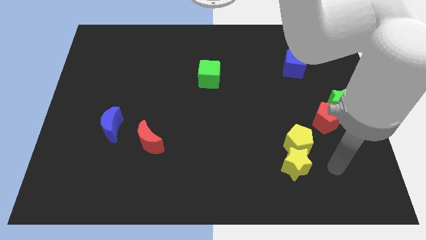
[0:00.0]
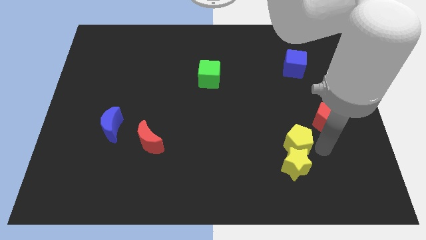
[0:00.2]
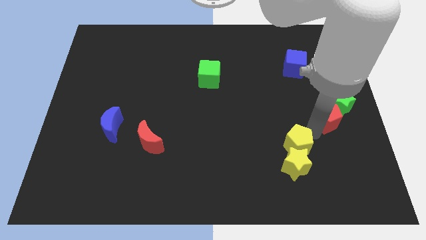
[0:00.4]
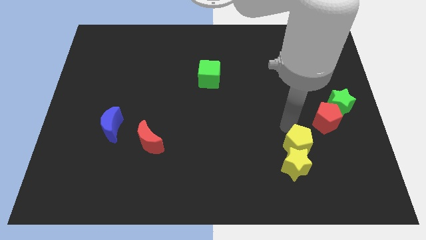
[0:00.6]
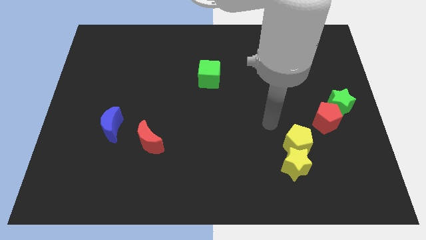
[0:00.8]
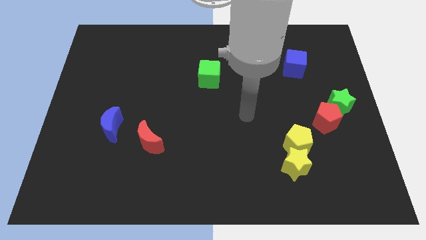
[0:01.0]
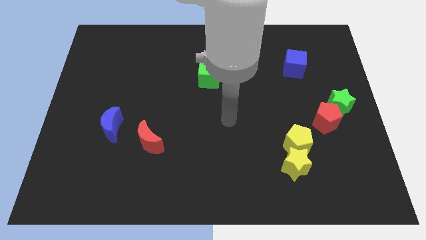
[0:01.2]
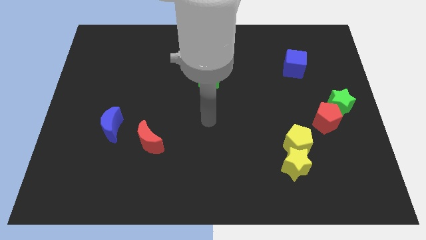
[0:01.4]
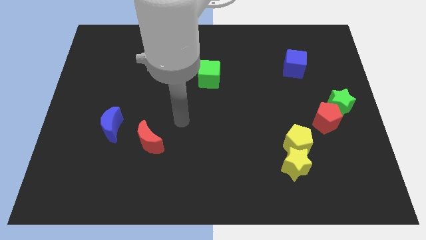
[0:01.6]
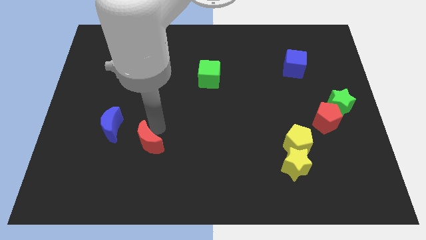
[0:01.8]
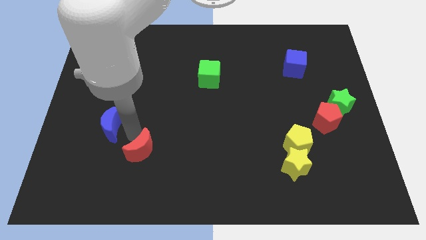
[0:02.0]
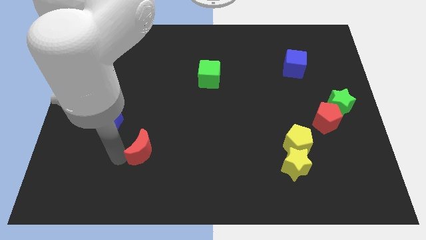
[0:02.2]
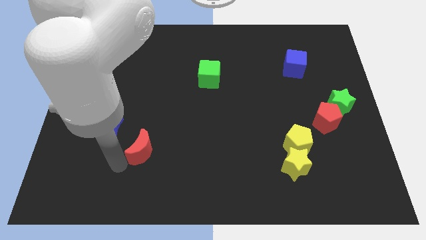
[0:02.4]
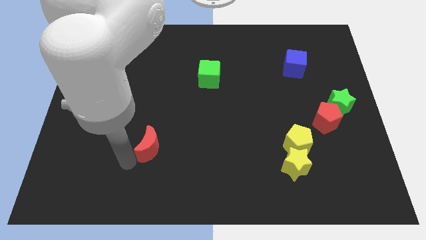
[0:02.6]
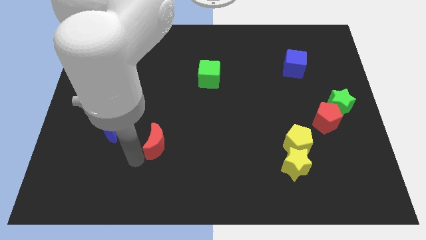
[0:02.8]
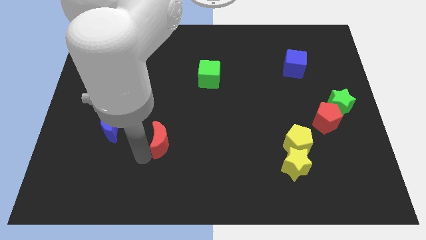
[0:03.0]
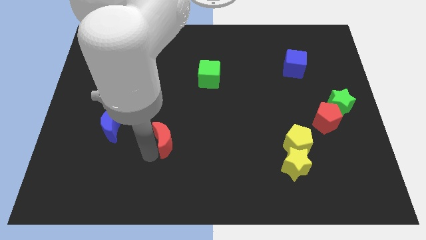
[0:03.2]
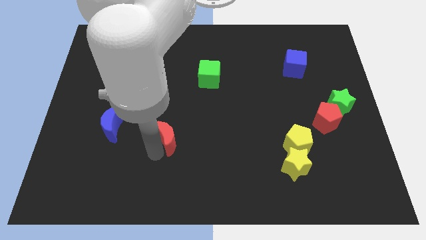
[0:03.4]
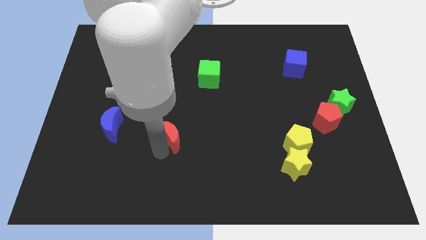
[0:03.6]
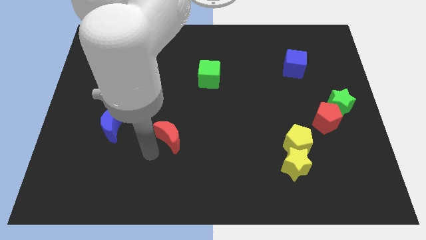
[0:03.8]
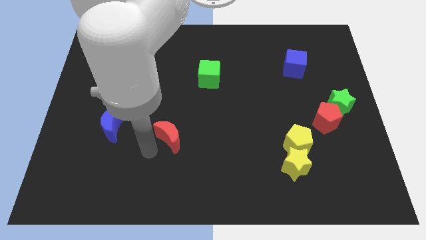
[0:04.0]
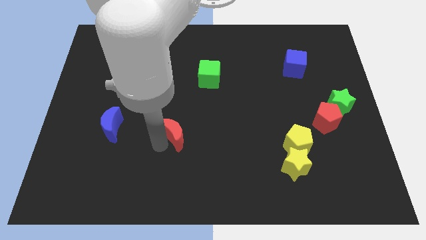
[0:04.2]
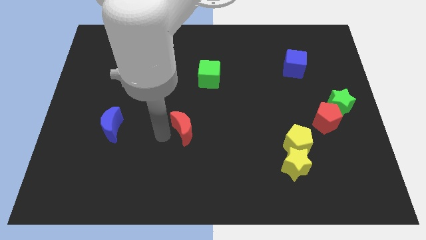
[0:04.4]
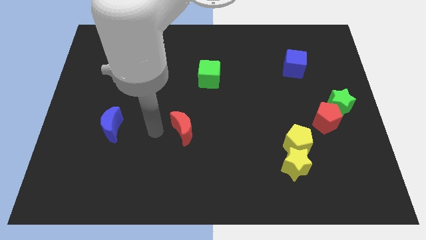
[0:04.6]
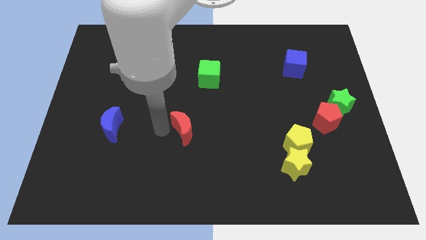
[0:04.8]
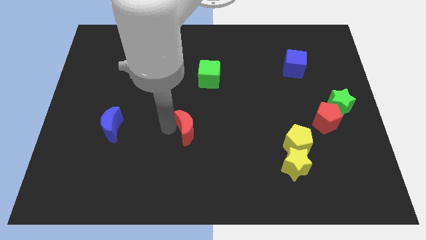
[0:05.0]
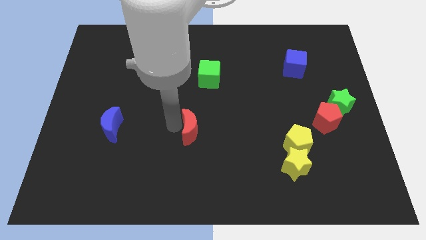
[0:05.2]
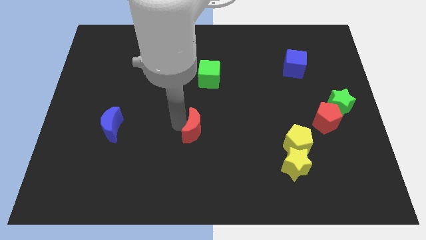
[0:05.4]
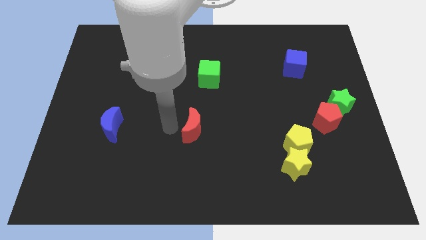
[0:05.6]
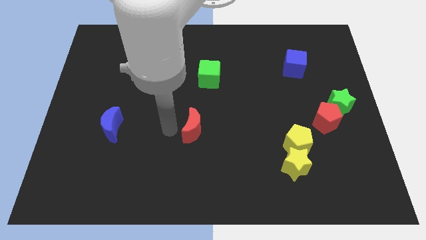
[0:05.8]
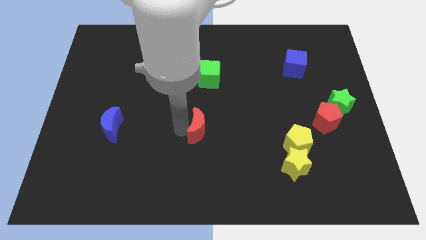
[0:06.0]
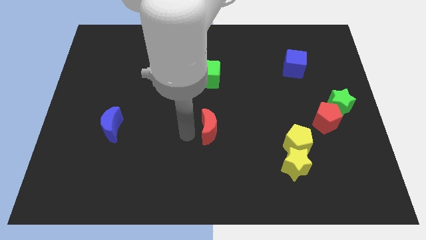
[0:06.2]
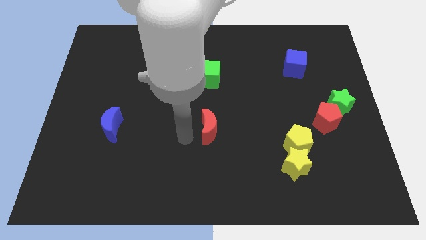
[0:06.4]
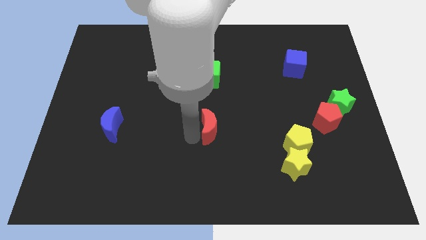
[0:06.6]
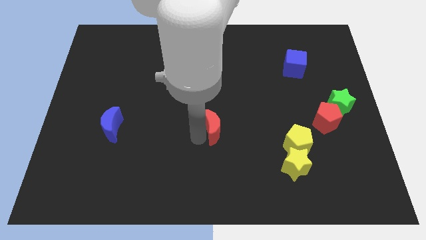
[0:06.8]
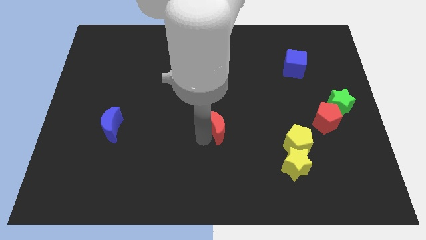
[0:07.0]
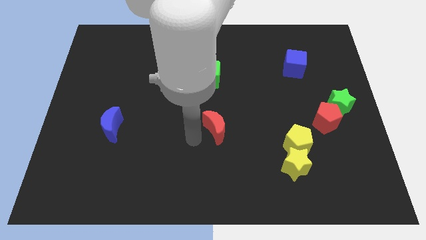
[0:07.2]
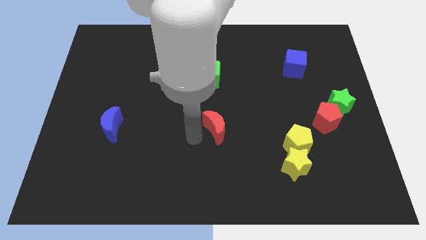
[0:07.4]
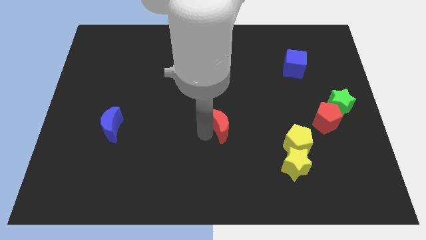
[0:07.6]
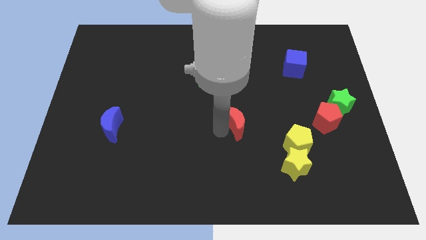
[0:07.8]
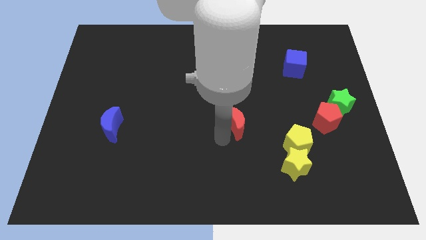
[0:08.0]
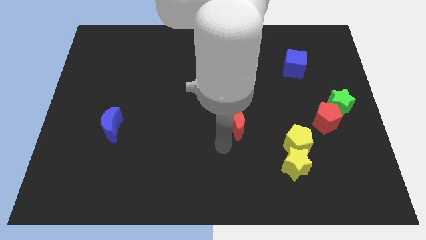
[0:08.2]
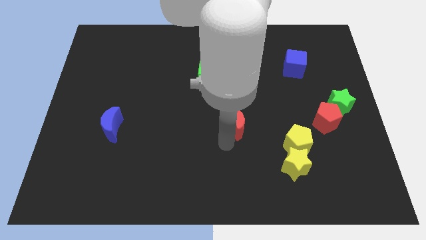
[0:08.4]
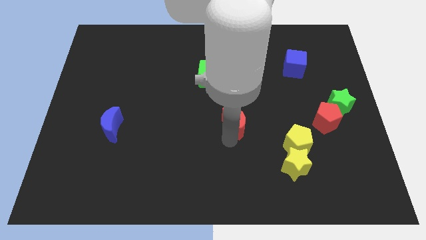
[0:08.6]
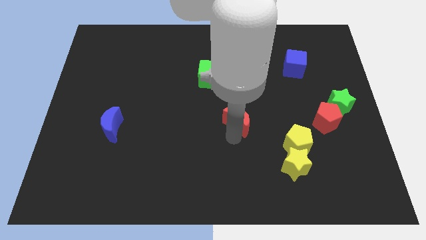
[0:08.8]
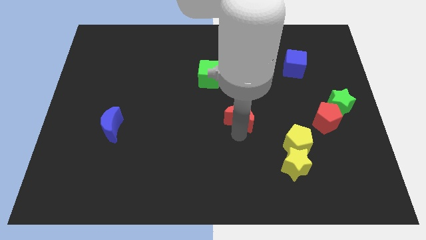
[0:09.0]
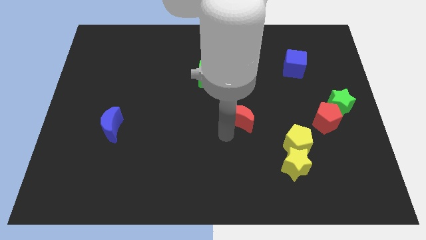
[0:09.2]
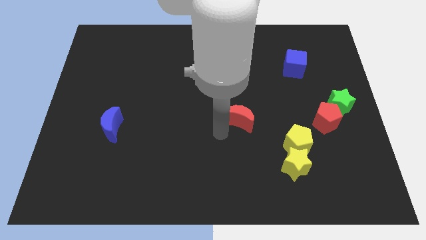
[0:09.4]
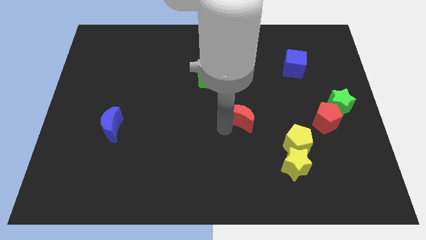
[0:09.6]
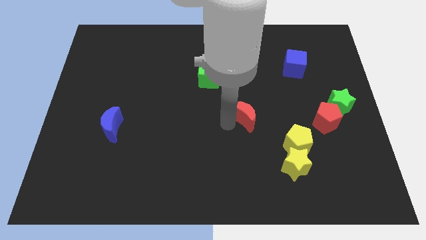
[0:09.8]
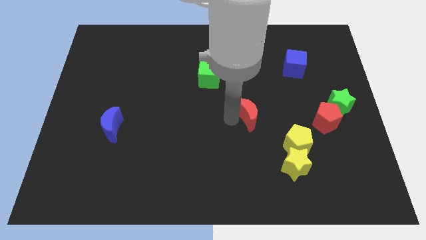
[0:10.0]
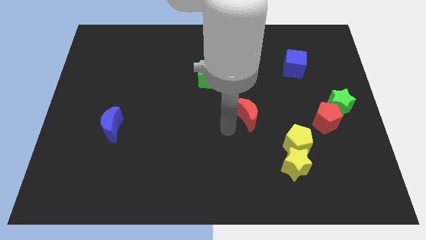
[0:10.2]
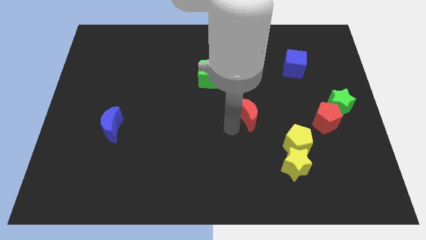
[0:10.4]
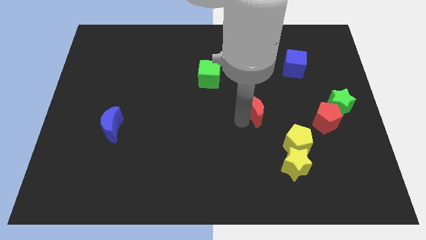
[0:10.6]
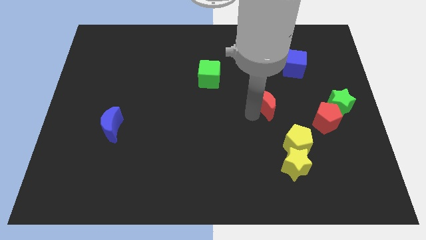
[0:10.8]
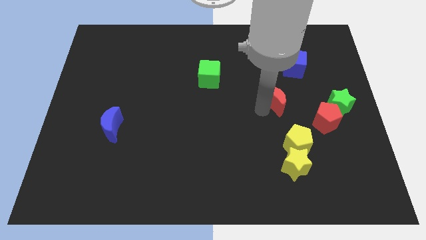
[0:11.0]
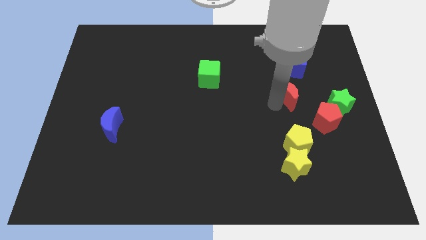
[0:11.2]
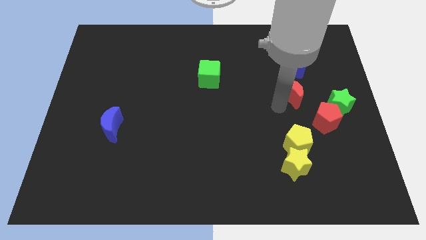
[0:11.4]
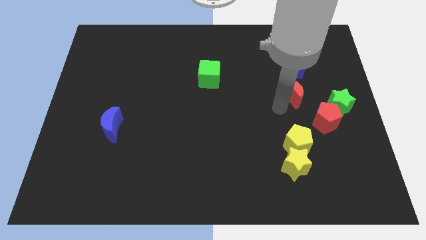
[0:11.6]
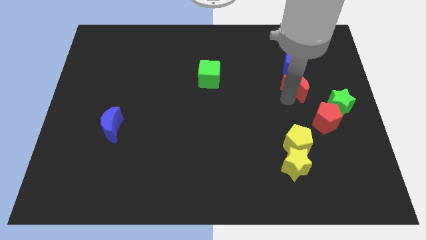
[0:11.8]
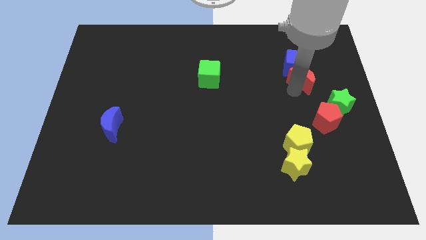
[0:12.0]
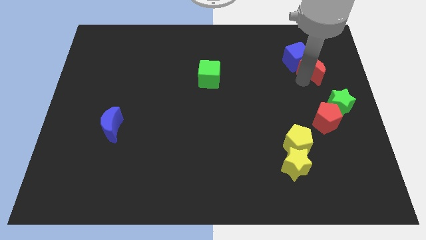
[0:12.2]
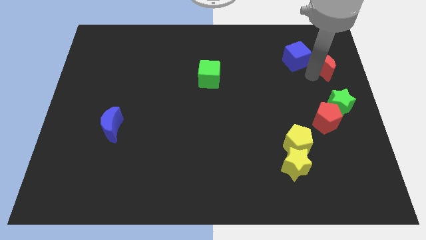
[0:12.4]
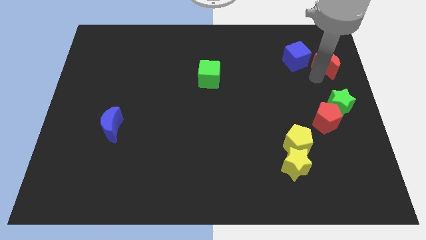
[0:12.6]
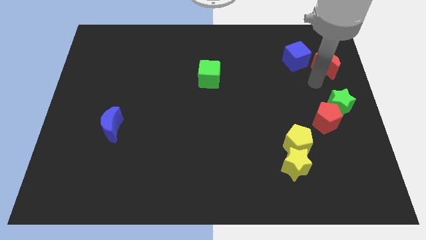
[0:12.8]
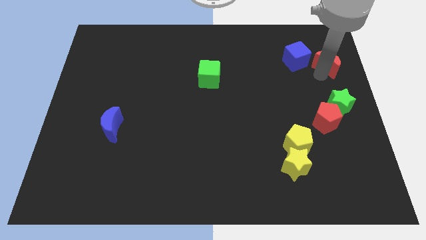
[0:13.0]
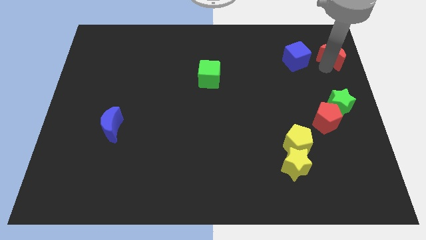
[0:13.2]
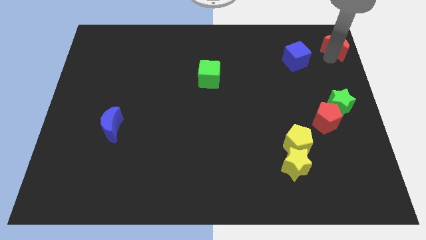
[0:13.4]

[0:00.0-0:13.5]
put the red moon to the top right

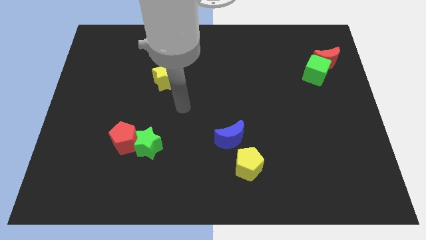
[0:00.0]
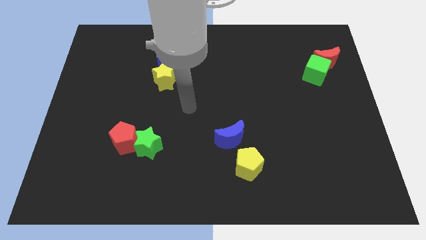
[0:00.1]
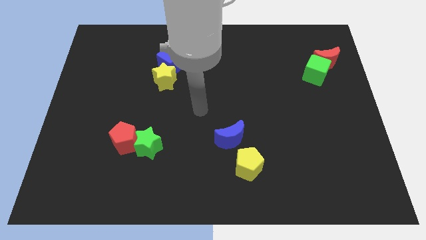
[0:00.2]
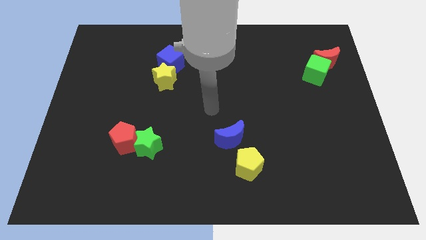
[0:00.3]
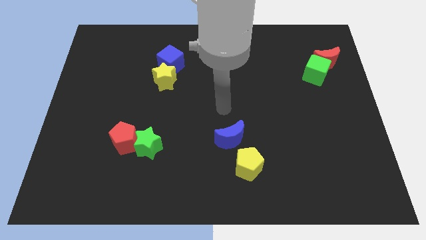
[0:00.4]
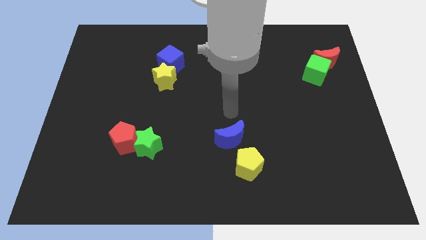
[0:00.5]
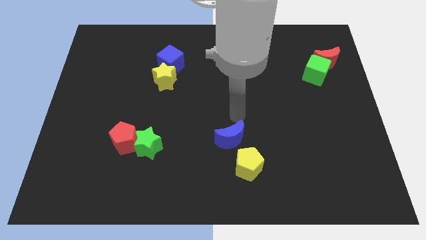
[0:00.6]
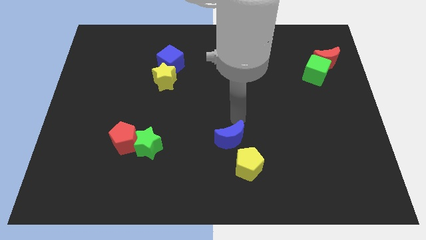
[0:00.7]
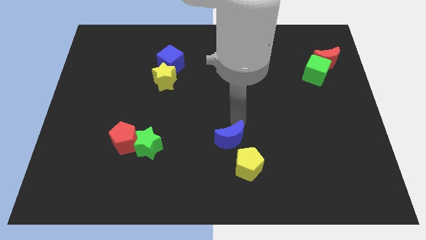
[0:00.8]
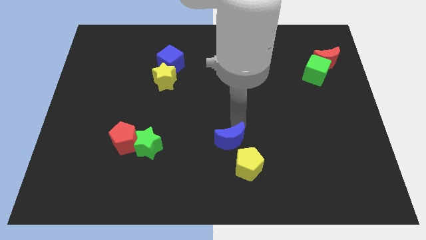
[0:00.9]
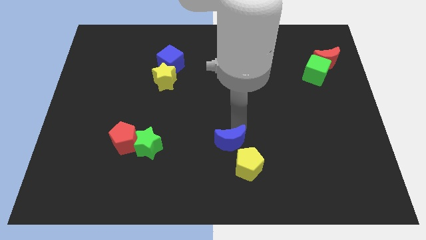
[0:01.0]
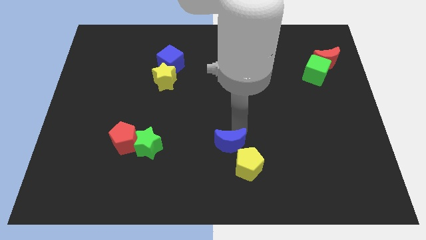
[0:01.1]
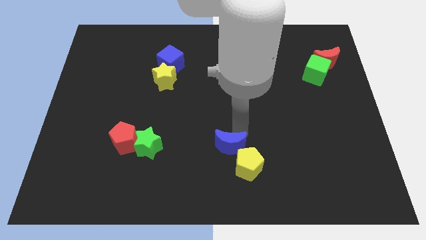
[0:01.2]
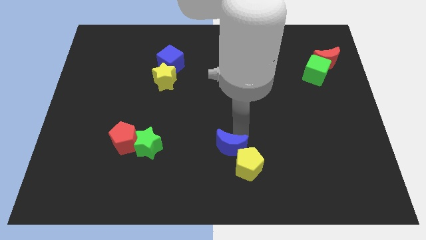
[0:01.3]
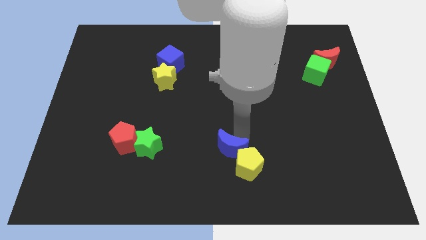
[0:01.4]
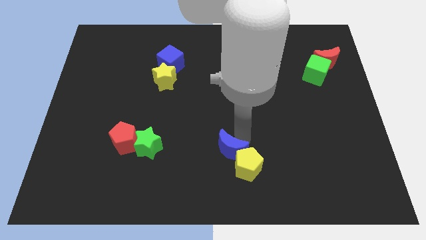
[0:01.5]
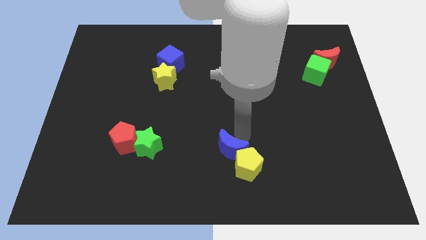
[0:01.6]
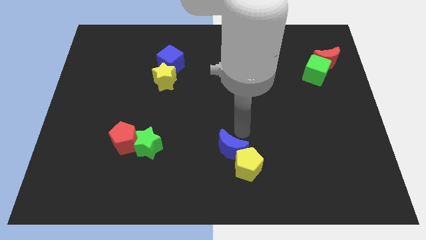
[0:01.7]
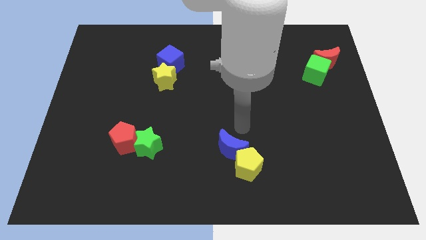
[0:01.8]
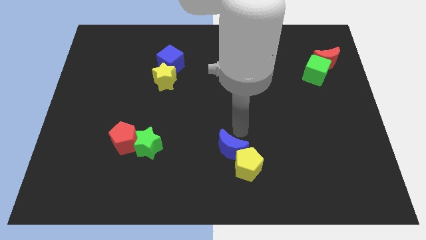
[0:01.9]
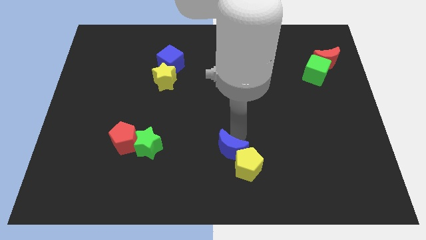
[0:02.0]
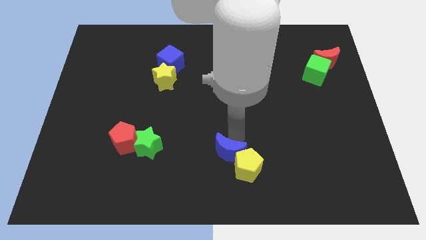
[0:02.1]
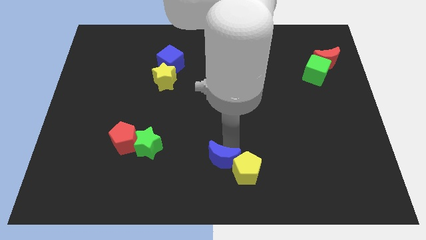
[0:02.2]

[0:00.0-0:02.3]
push the blue moon to the bottom
